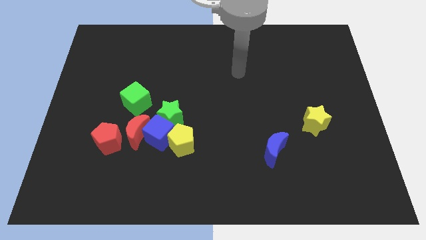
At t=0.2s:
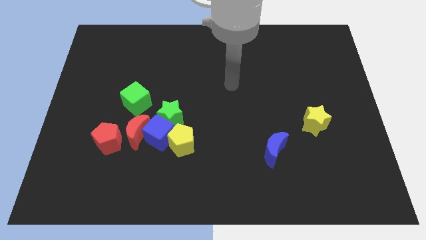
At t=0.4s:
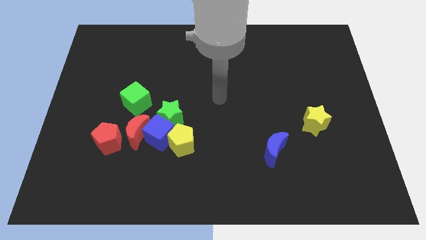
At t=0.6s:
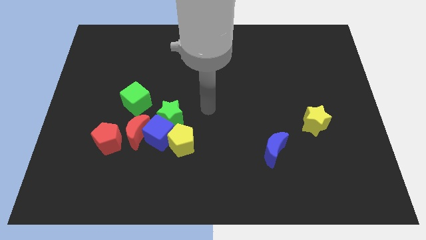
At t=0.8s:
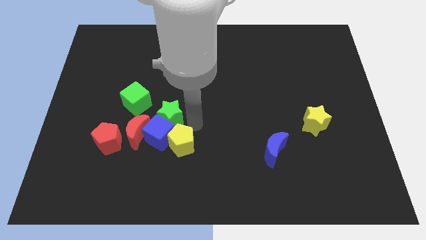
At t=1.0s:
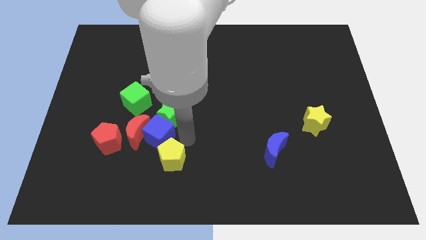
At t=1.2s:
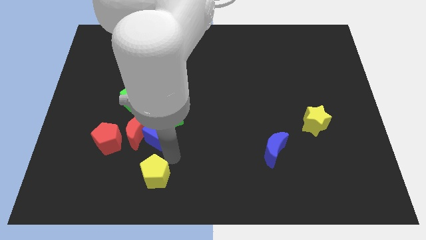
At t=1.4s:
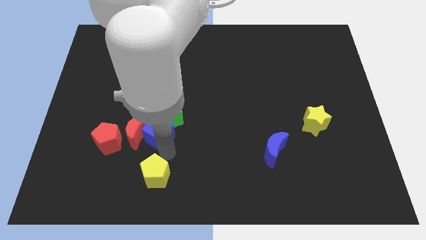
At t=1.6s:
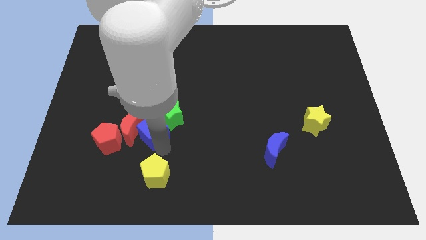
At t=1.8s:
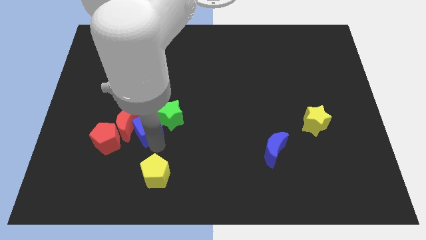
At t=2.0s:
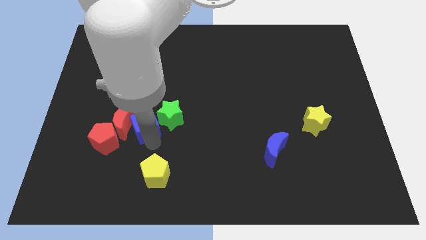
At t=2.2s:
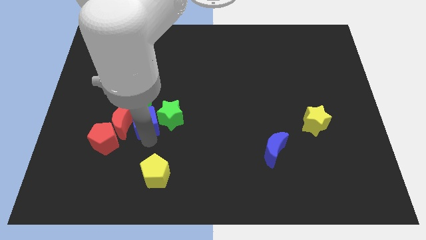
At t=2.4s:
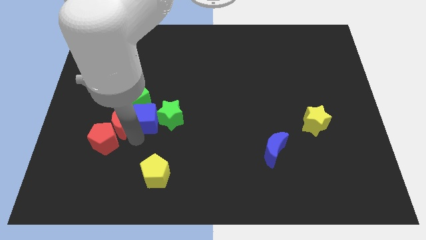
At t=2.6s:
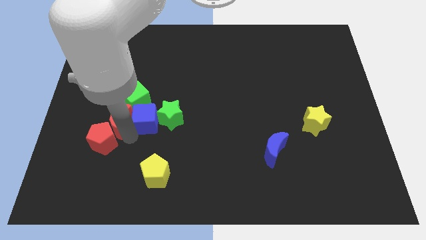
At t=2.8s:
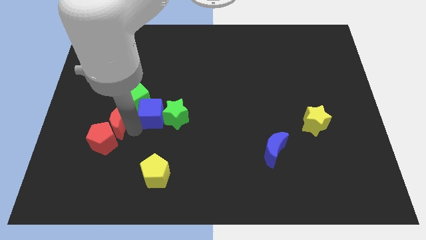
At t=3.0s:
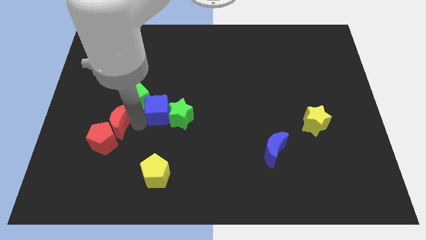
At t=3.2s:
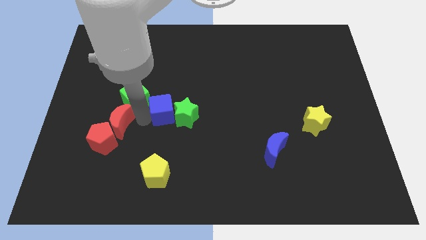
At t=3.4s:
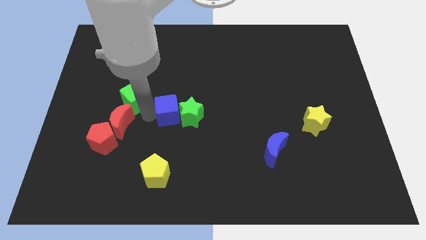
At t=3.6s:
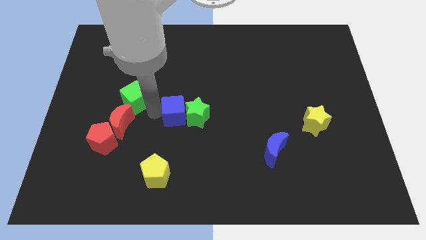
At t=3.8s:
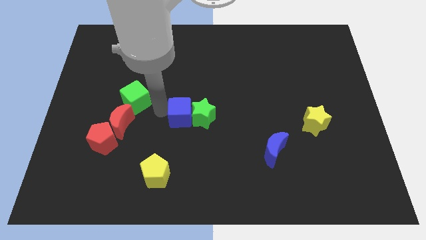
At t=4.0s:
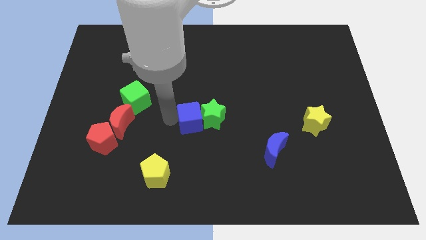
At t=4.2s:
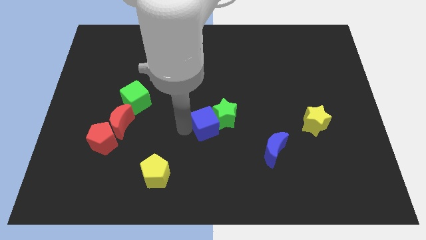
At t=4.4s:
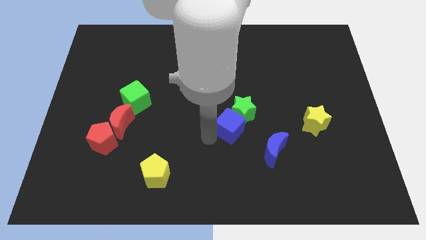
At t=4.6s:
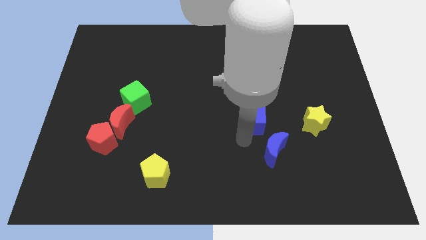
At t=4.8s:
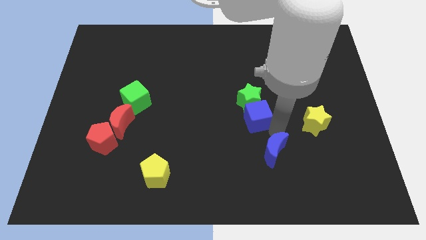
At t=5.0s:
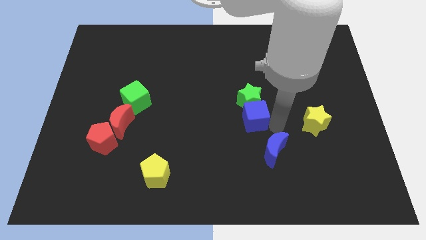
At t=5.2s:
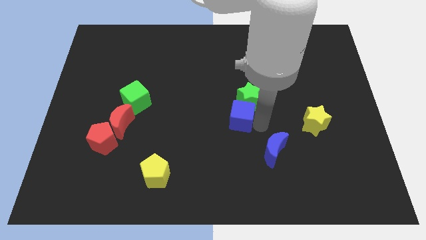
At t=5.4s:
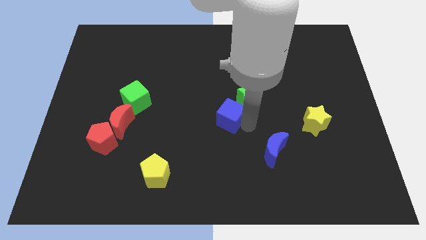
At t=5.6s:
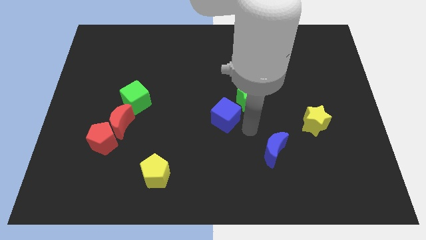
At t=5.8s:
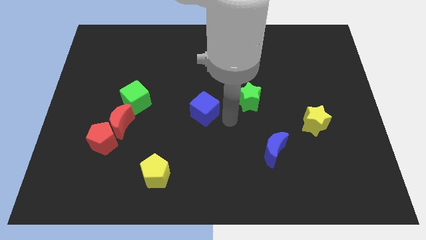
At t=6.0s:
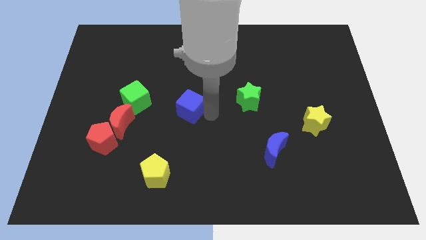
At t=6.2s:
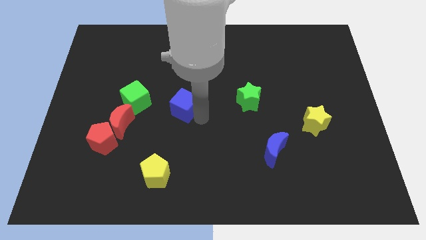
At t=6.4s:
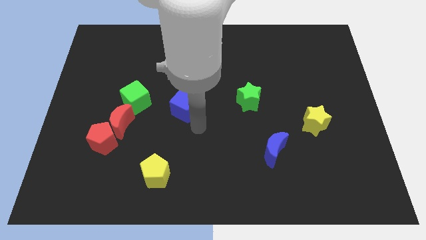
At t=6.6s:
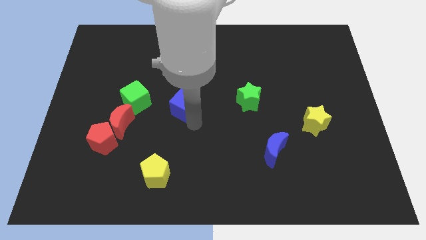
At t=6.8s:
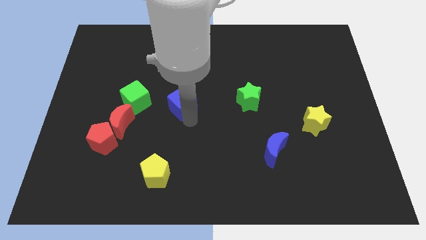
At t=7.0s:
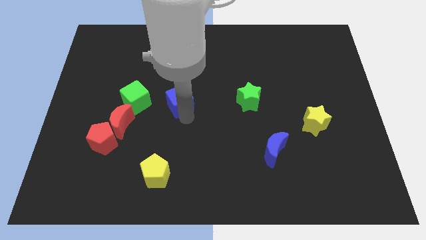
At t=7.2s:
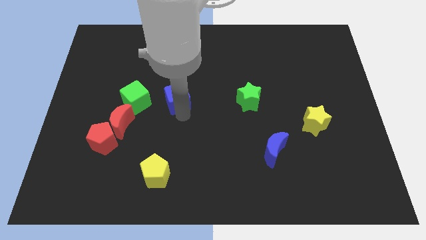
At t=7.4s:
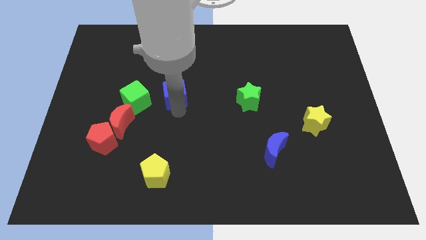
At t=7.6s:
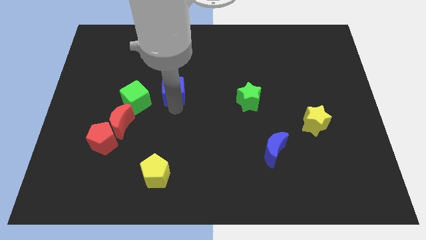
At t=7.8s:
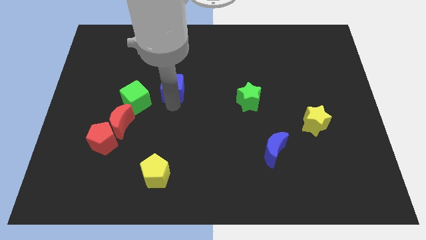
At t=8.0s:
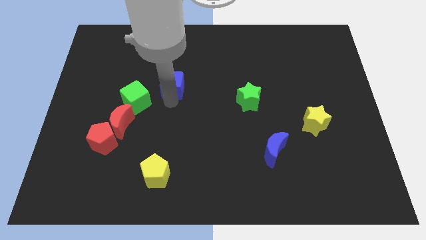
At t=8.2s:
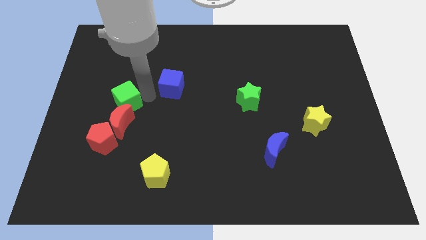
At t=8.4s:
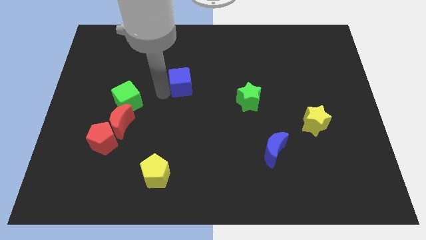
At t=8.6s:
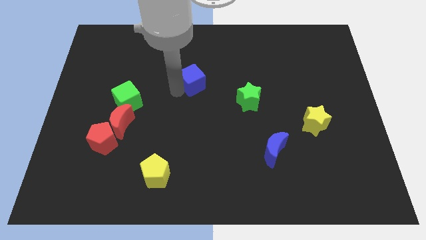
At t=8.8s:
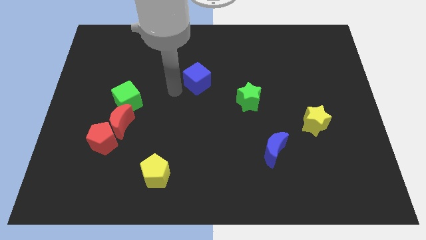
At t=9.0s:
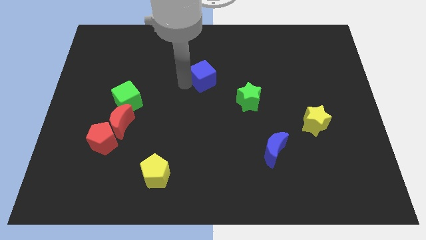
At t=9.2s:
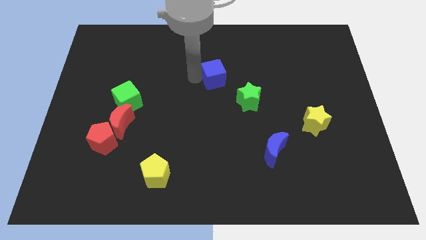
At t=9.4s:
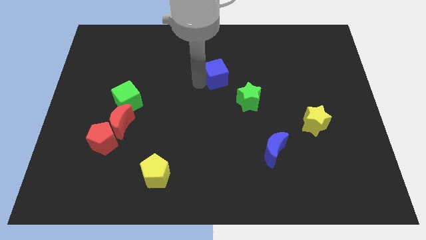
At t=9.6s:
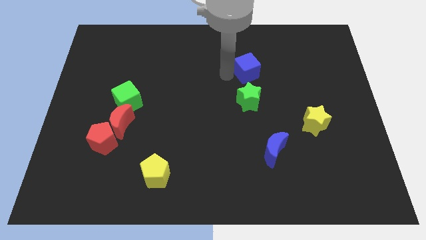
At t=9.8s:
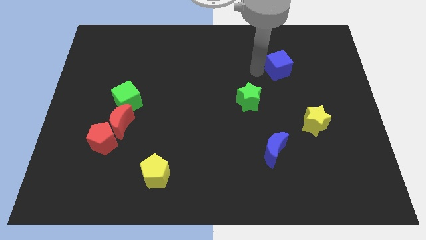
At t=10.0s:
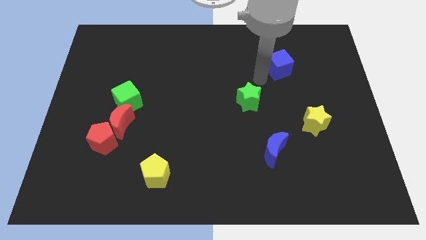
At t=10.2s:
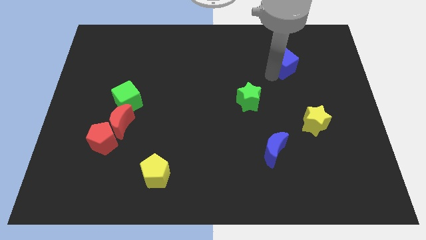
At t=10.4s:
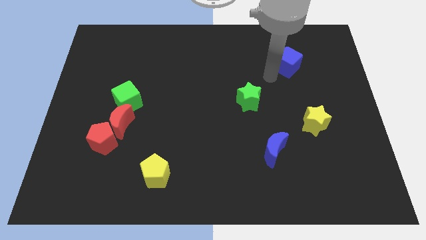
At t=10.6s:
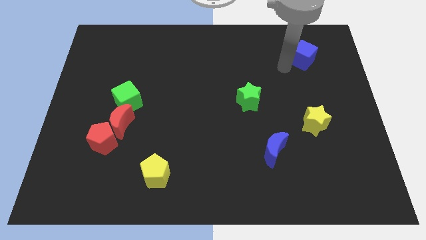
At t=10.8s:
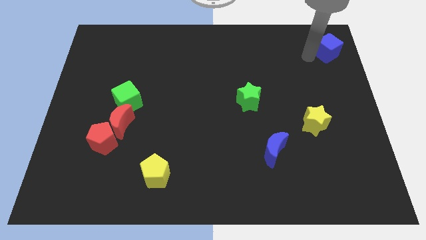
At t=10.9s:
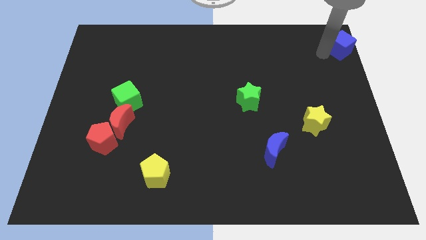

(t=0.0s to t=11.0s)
move the blue cube to the top right

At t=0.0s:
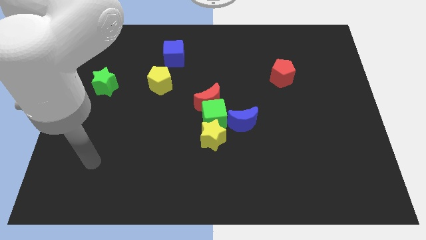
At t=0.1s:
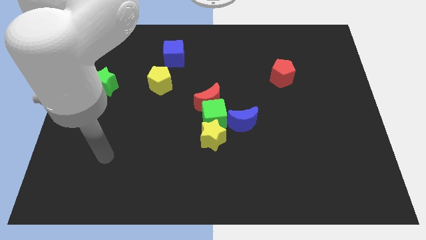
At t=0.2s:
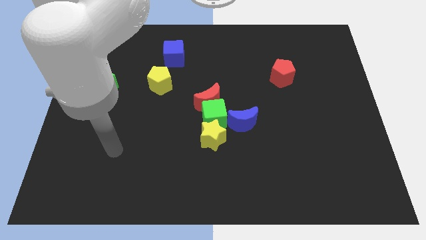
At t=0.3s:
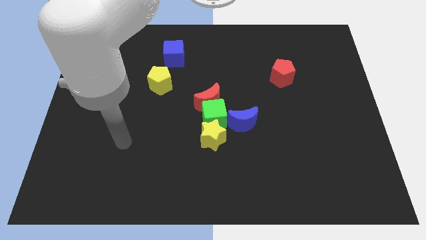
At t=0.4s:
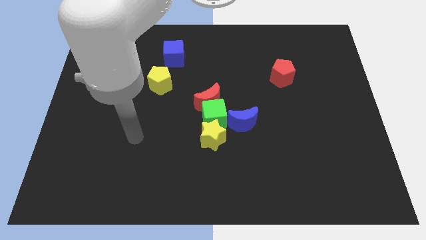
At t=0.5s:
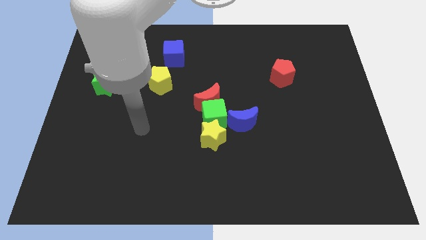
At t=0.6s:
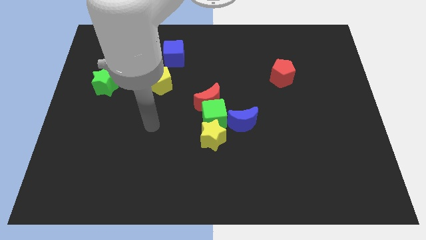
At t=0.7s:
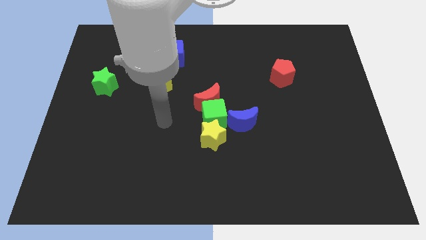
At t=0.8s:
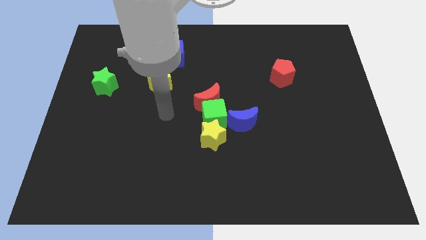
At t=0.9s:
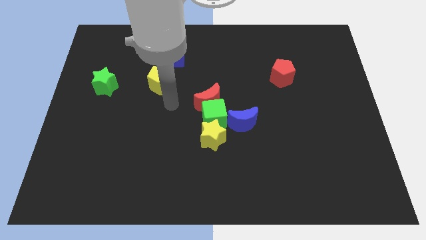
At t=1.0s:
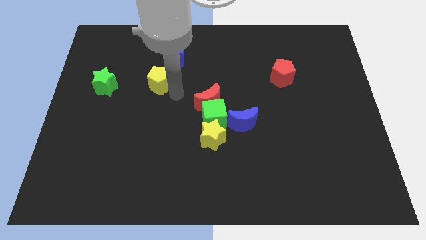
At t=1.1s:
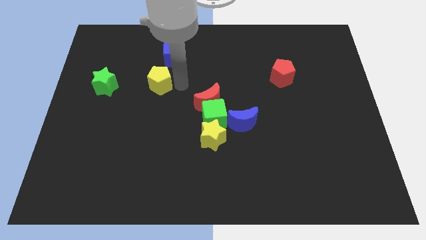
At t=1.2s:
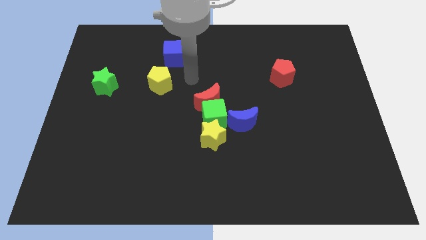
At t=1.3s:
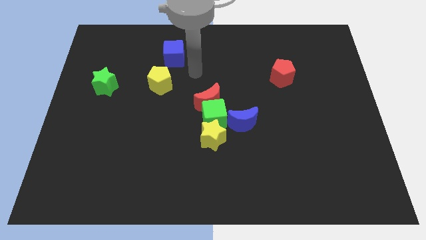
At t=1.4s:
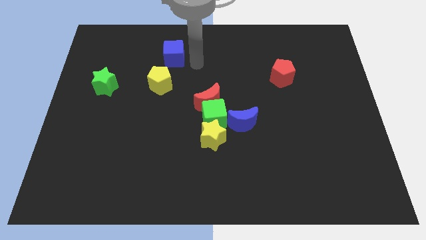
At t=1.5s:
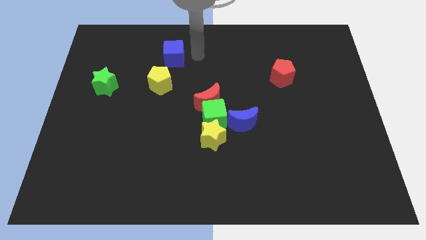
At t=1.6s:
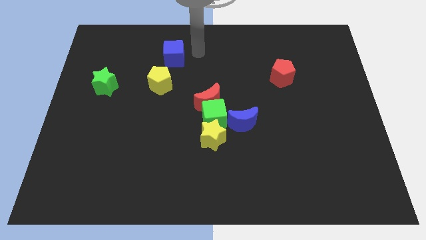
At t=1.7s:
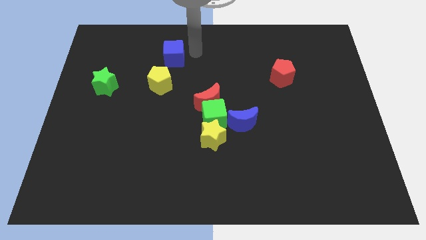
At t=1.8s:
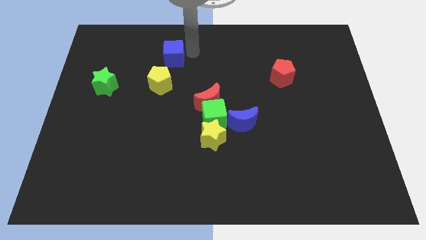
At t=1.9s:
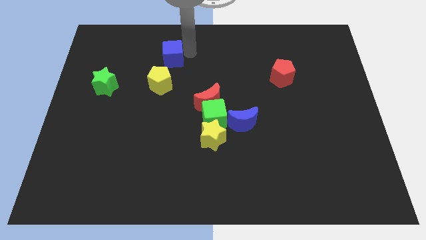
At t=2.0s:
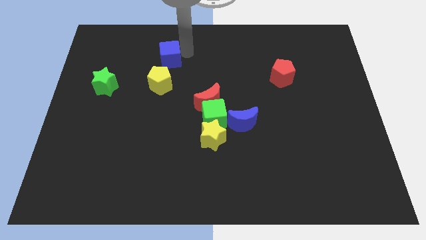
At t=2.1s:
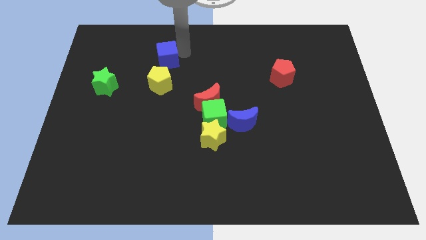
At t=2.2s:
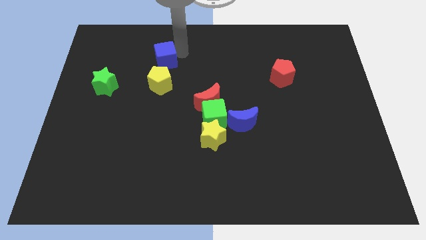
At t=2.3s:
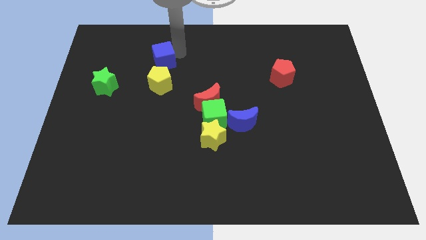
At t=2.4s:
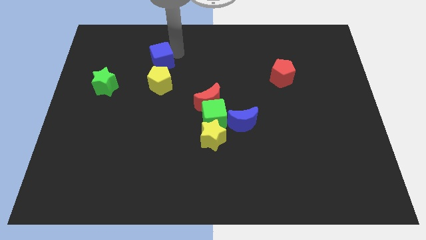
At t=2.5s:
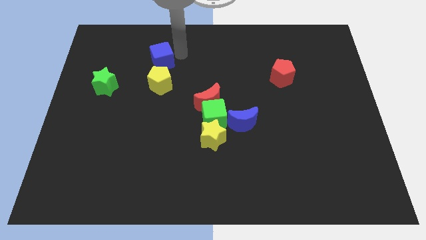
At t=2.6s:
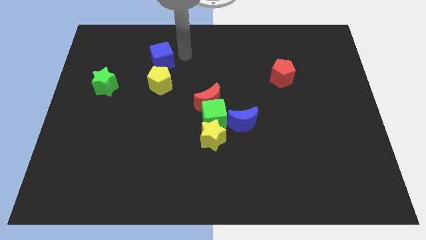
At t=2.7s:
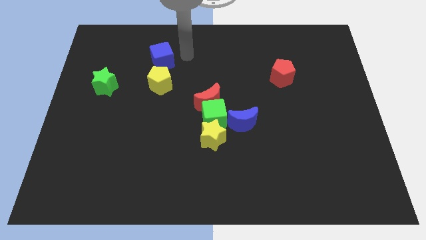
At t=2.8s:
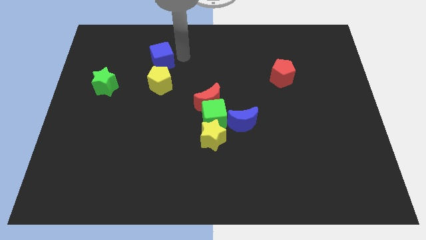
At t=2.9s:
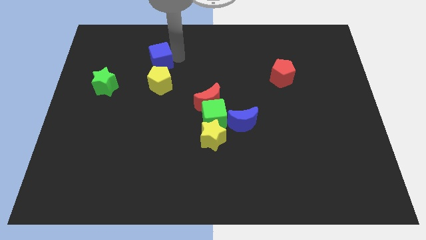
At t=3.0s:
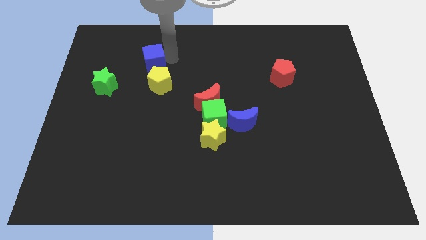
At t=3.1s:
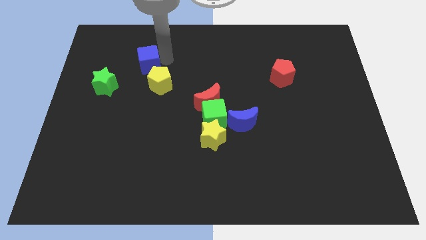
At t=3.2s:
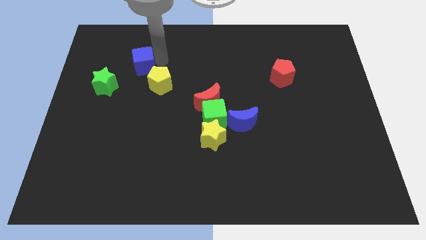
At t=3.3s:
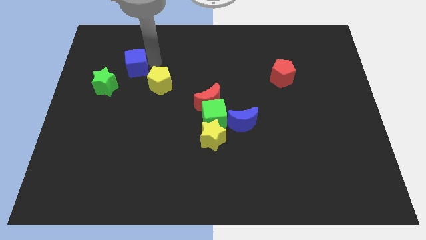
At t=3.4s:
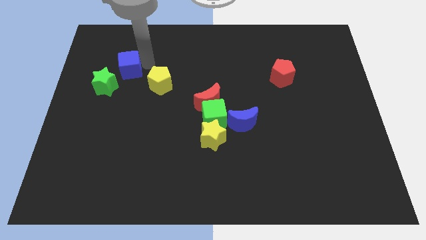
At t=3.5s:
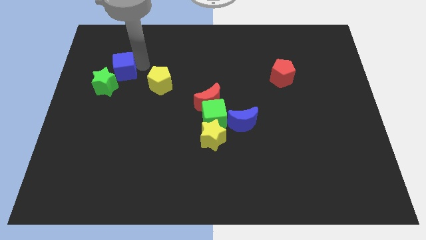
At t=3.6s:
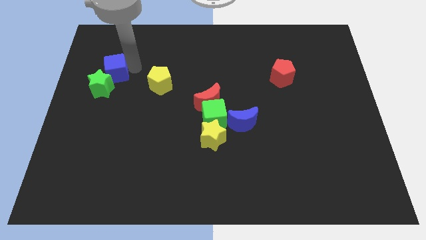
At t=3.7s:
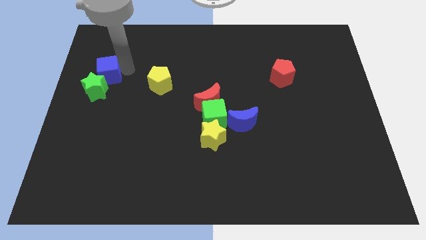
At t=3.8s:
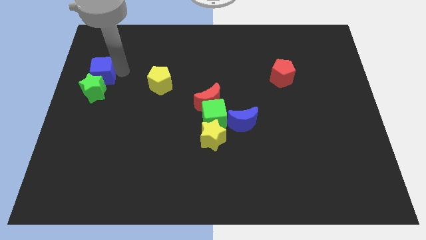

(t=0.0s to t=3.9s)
put the blue cube to the center left
